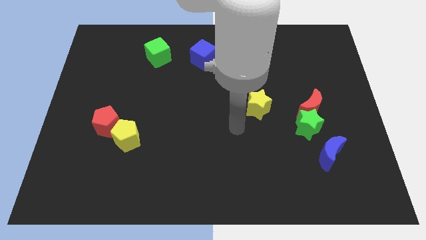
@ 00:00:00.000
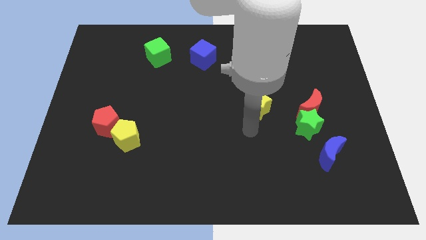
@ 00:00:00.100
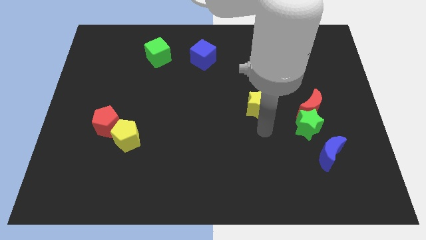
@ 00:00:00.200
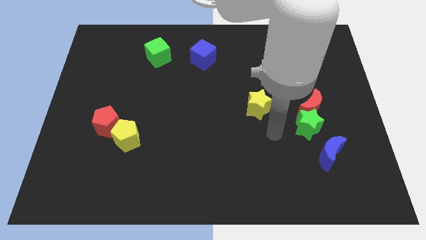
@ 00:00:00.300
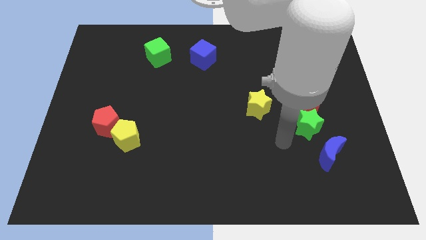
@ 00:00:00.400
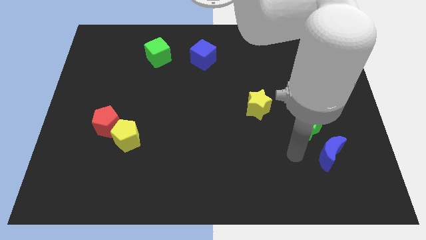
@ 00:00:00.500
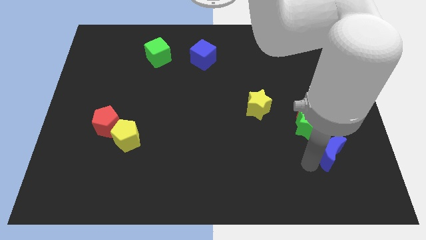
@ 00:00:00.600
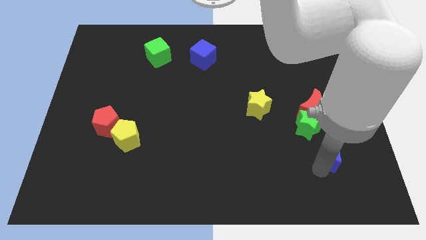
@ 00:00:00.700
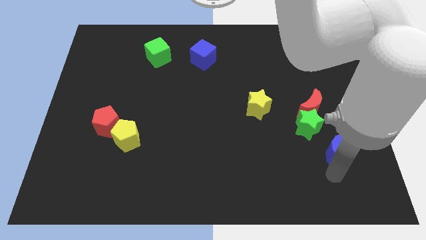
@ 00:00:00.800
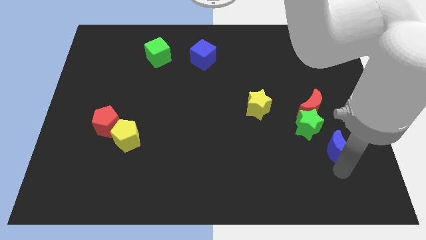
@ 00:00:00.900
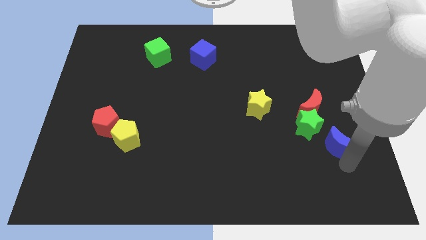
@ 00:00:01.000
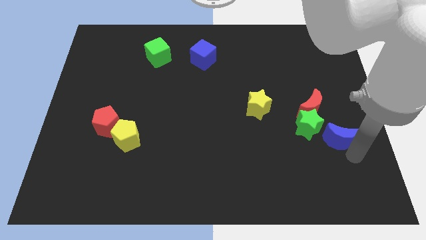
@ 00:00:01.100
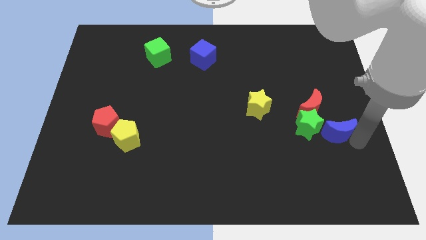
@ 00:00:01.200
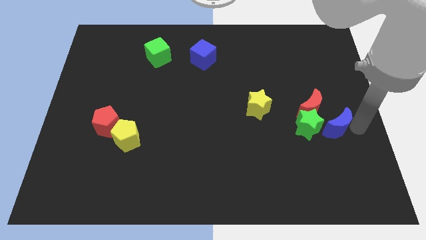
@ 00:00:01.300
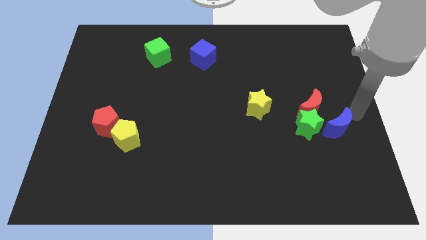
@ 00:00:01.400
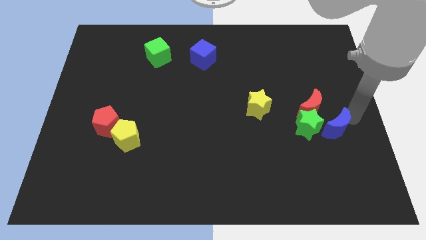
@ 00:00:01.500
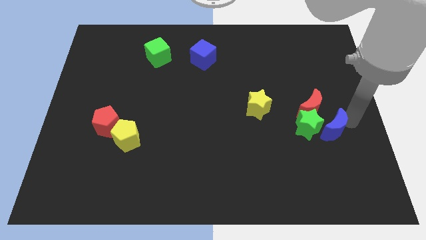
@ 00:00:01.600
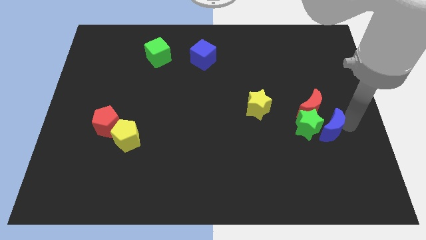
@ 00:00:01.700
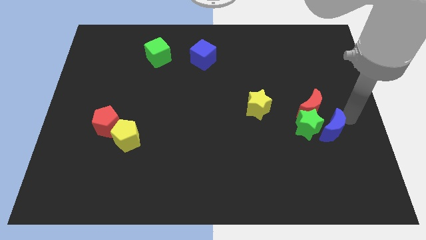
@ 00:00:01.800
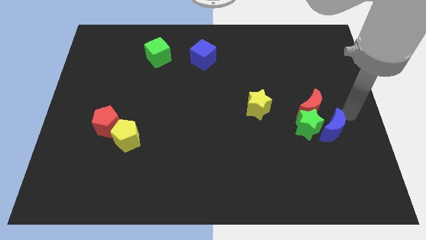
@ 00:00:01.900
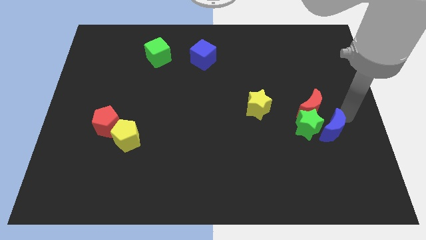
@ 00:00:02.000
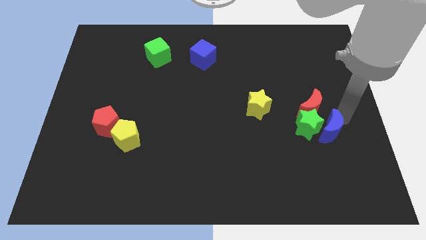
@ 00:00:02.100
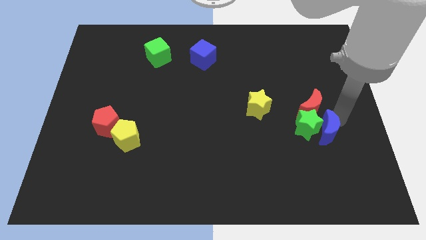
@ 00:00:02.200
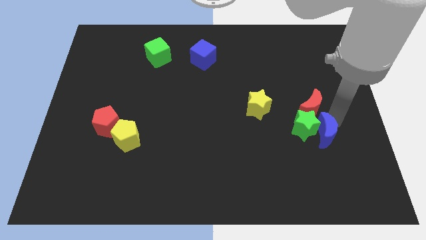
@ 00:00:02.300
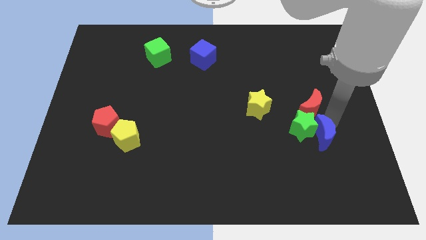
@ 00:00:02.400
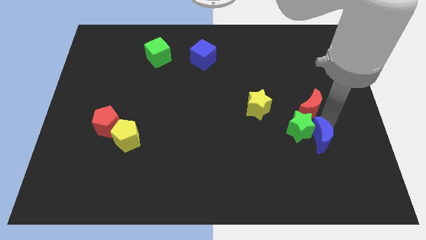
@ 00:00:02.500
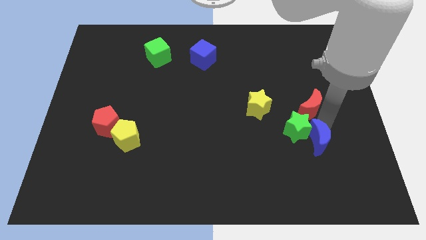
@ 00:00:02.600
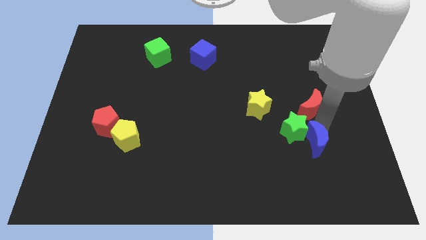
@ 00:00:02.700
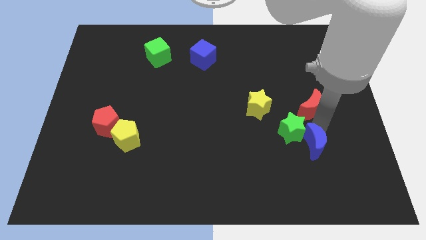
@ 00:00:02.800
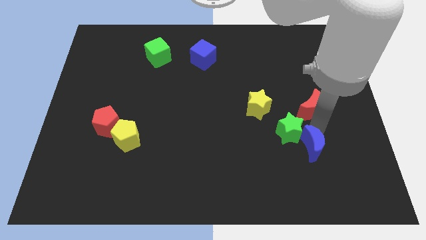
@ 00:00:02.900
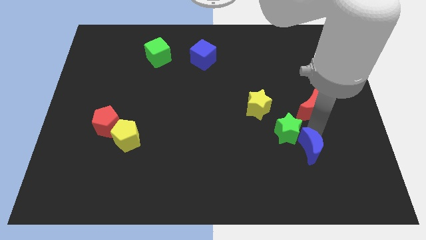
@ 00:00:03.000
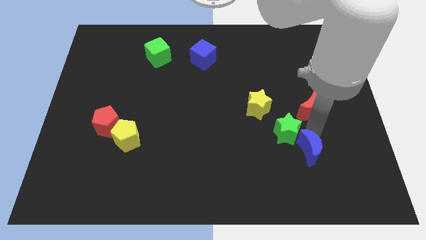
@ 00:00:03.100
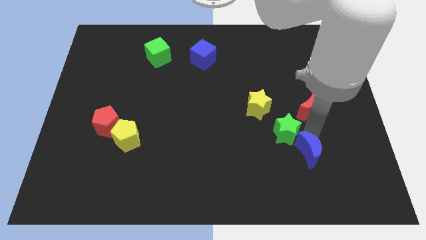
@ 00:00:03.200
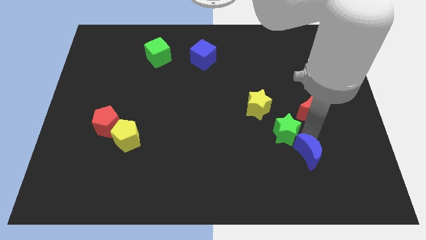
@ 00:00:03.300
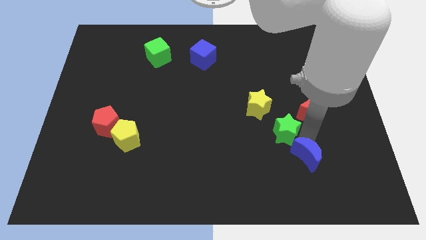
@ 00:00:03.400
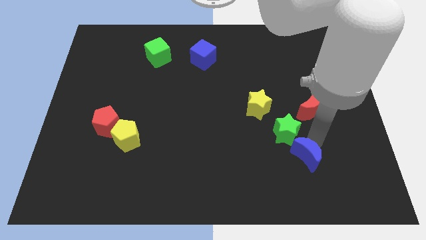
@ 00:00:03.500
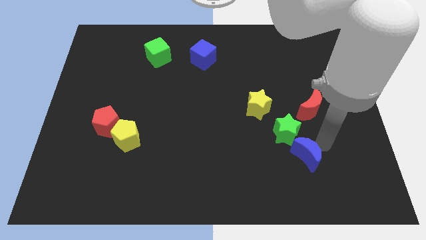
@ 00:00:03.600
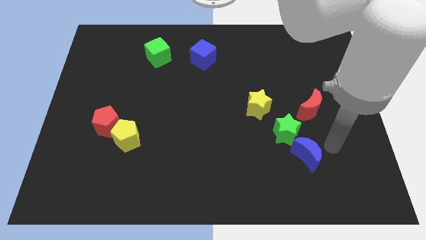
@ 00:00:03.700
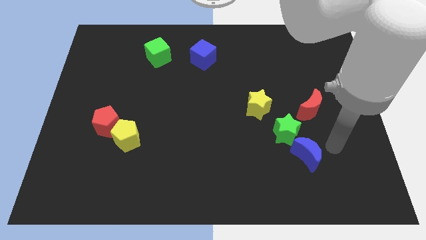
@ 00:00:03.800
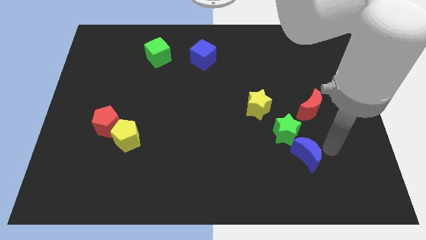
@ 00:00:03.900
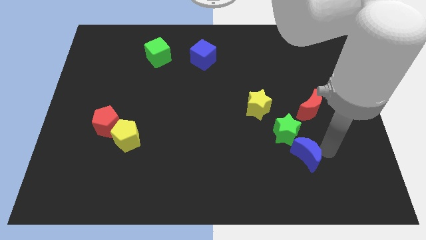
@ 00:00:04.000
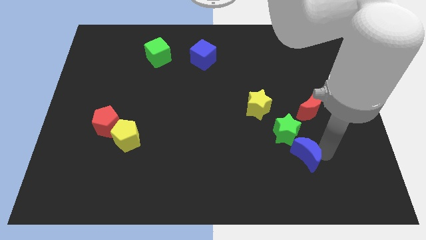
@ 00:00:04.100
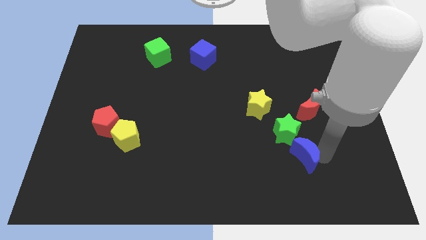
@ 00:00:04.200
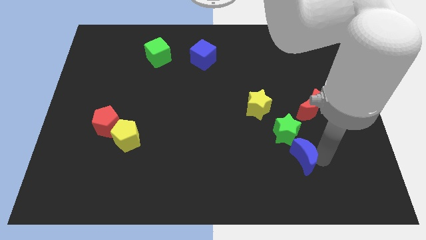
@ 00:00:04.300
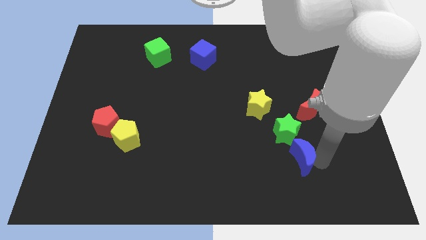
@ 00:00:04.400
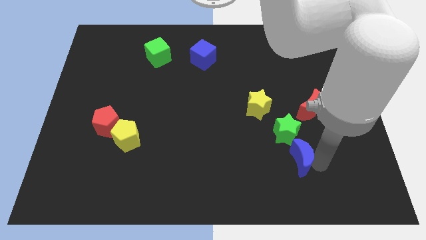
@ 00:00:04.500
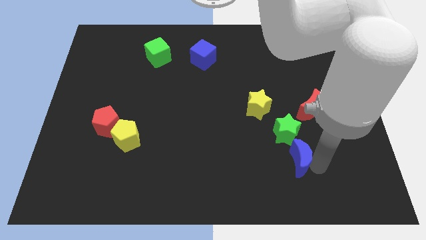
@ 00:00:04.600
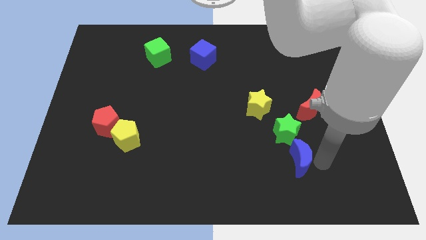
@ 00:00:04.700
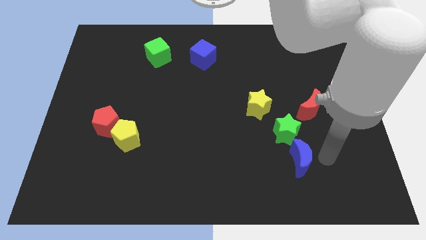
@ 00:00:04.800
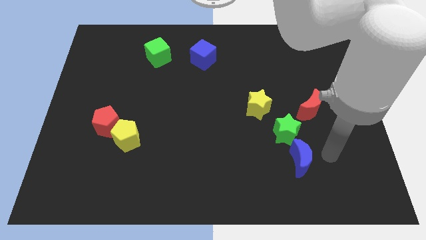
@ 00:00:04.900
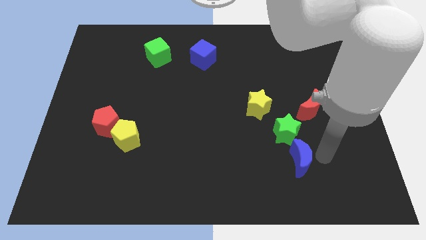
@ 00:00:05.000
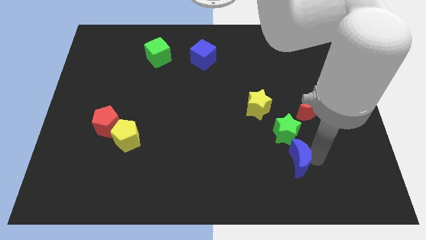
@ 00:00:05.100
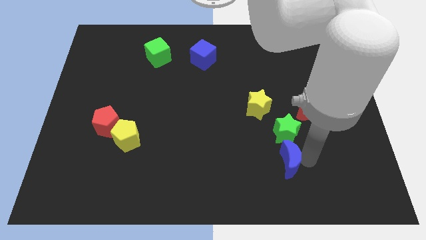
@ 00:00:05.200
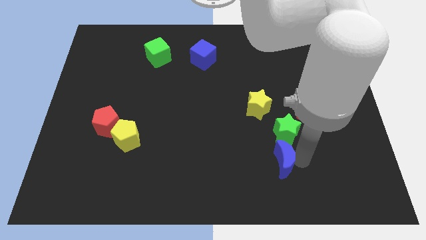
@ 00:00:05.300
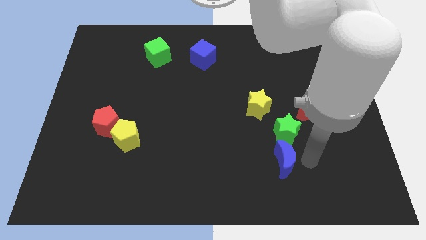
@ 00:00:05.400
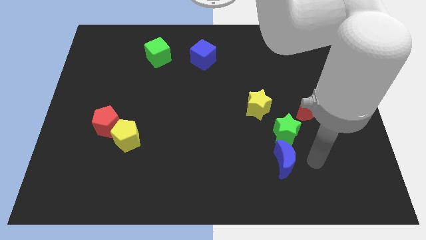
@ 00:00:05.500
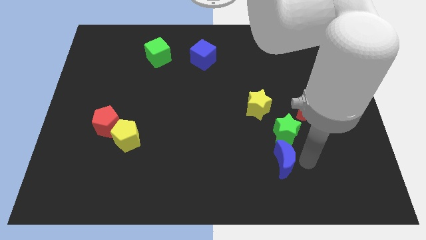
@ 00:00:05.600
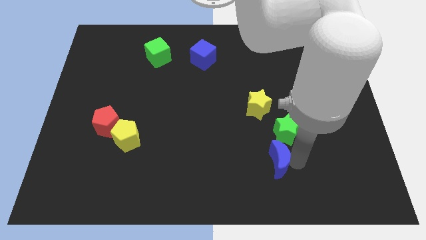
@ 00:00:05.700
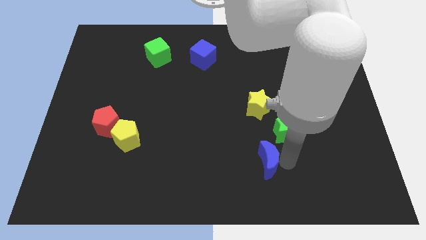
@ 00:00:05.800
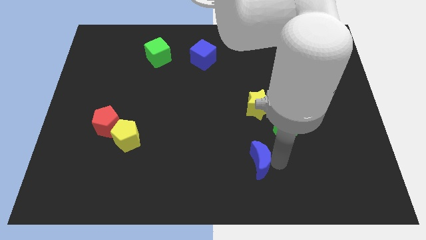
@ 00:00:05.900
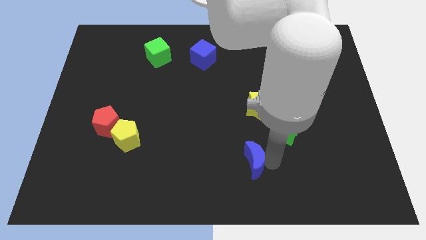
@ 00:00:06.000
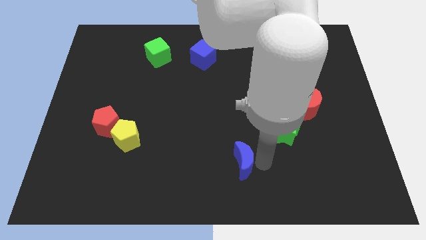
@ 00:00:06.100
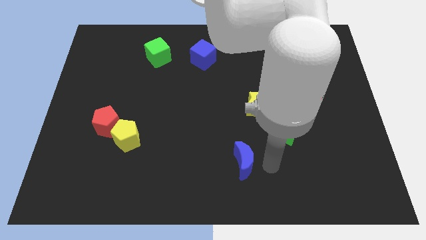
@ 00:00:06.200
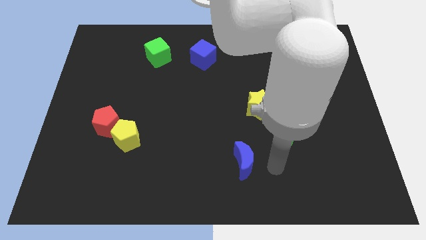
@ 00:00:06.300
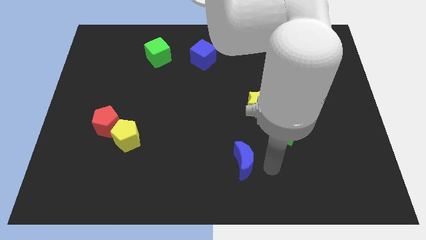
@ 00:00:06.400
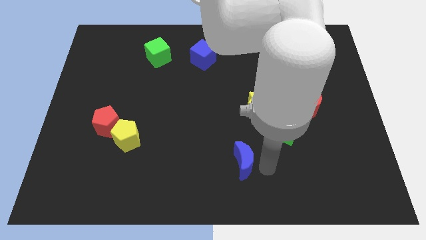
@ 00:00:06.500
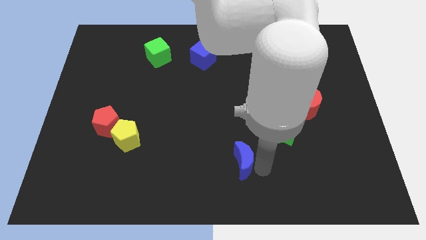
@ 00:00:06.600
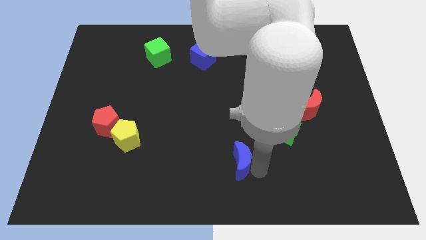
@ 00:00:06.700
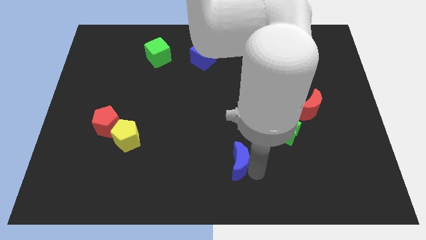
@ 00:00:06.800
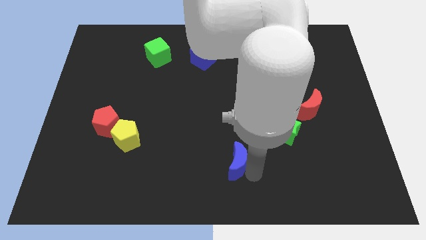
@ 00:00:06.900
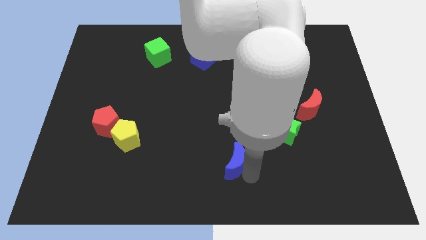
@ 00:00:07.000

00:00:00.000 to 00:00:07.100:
push the blue moon to the left

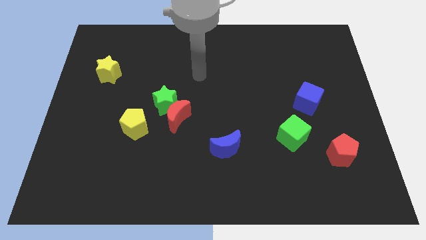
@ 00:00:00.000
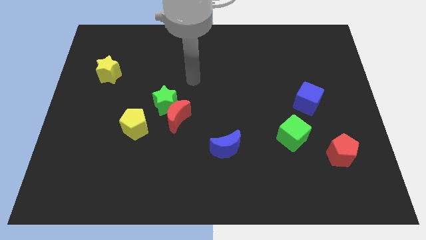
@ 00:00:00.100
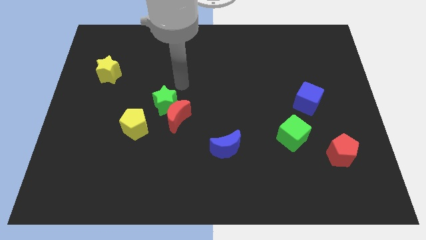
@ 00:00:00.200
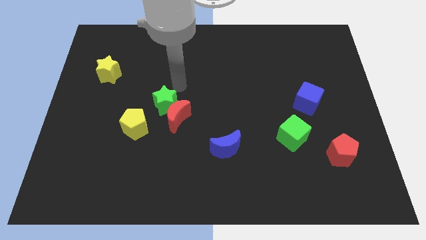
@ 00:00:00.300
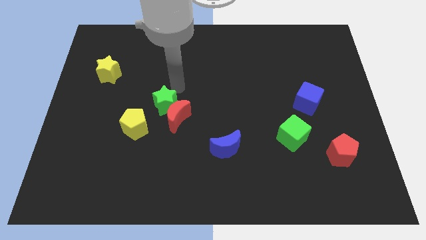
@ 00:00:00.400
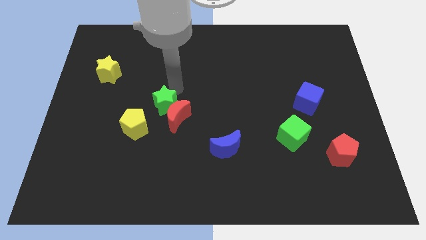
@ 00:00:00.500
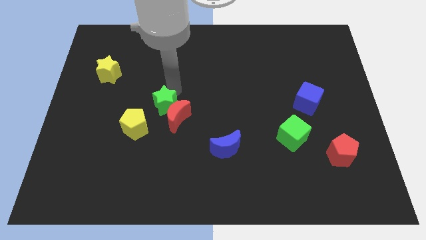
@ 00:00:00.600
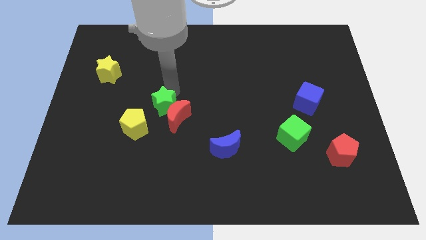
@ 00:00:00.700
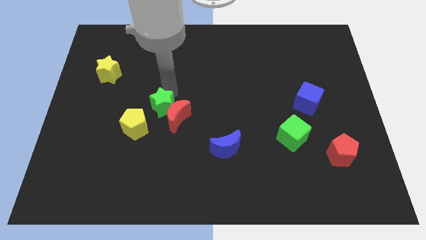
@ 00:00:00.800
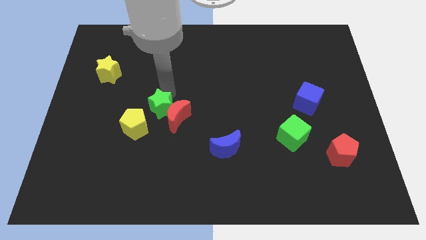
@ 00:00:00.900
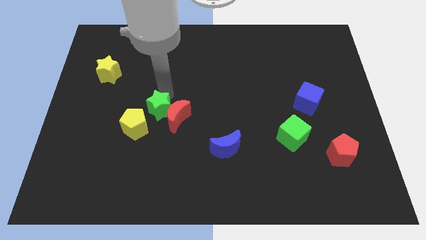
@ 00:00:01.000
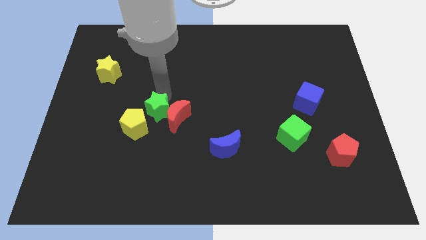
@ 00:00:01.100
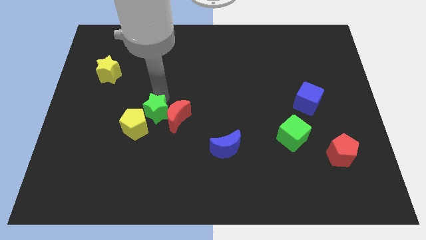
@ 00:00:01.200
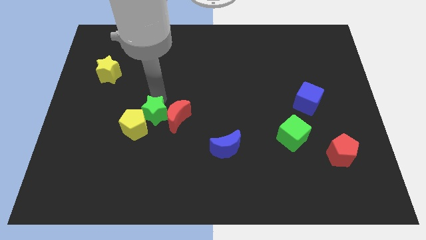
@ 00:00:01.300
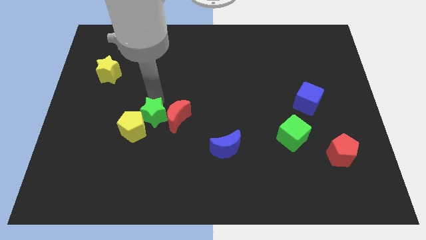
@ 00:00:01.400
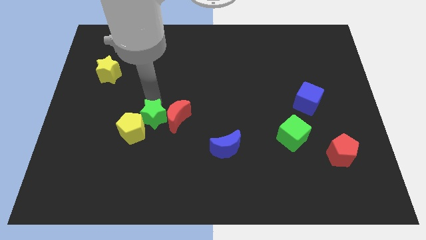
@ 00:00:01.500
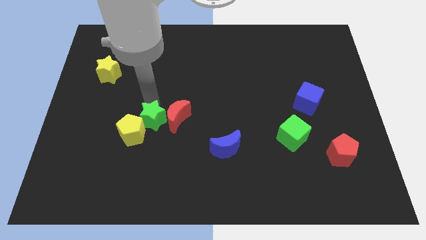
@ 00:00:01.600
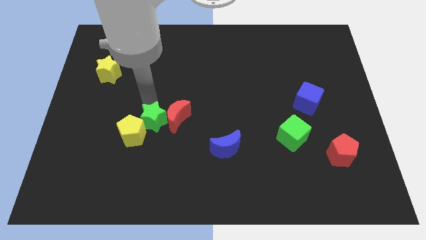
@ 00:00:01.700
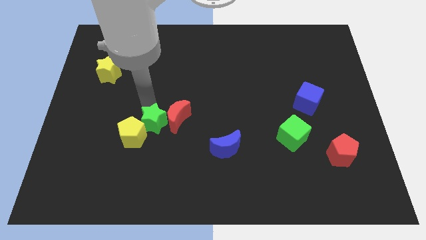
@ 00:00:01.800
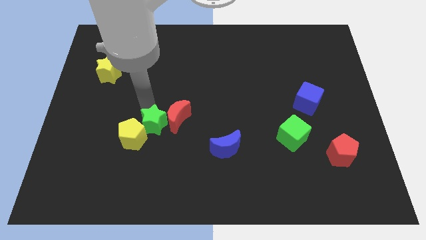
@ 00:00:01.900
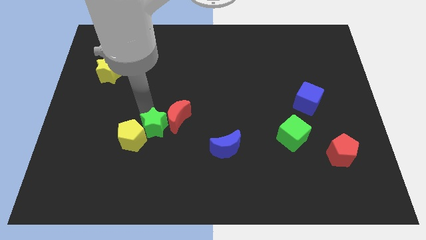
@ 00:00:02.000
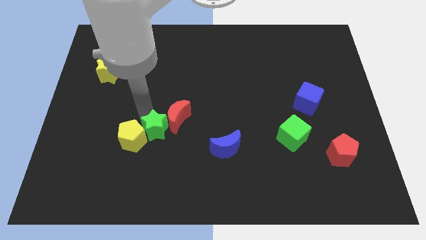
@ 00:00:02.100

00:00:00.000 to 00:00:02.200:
slightly slide the green star down
